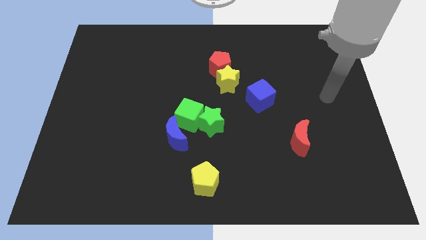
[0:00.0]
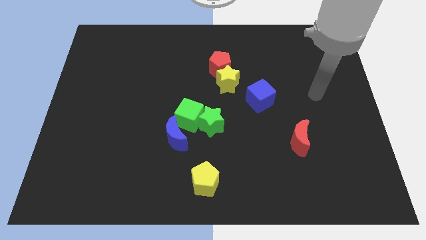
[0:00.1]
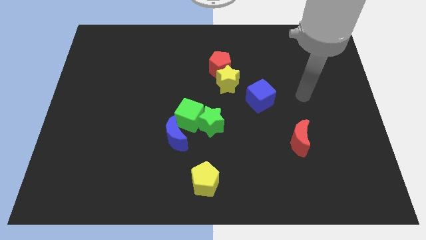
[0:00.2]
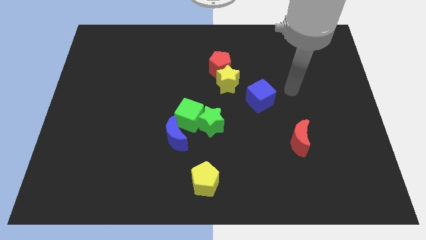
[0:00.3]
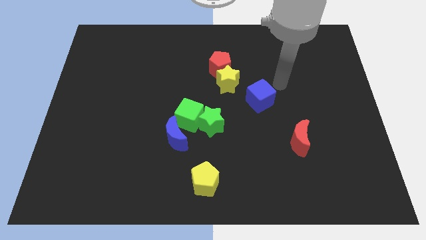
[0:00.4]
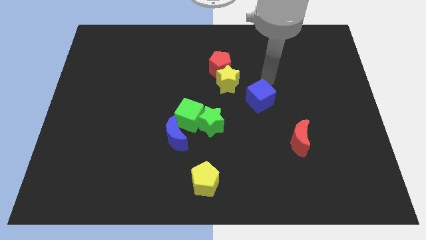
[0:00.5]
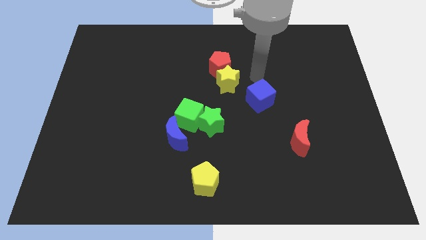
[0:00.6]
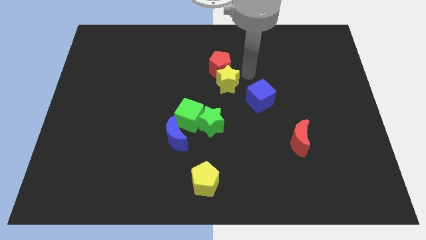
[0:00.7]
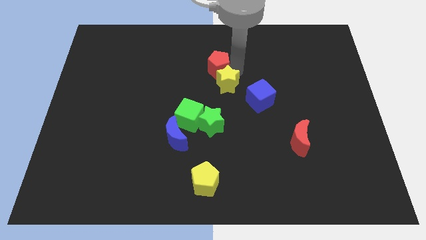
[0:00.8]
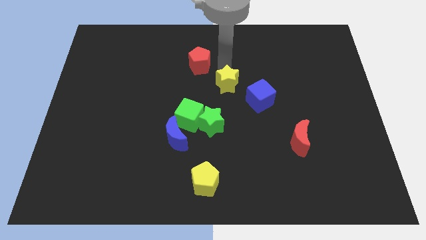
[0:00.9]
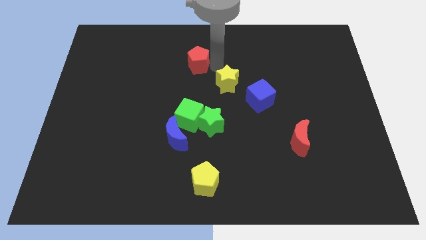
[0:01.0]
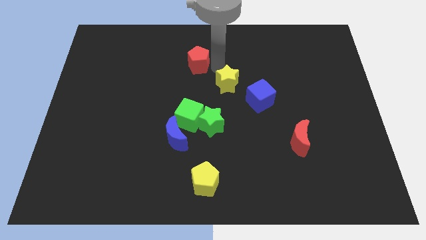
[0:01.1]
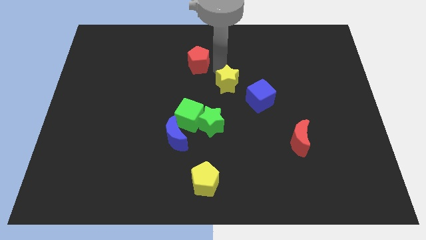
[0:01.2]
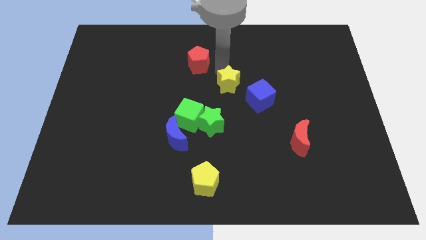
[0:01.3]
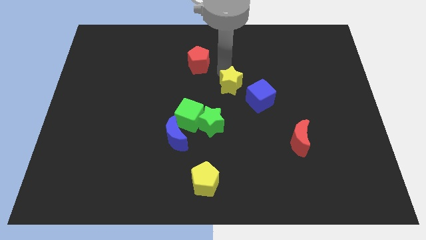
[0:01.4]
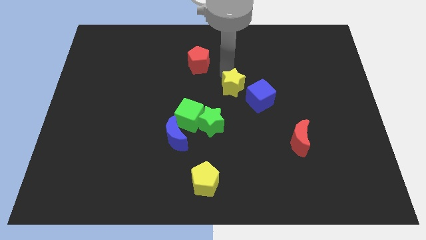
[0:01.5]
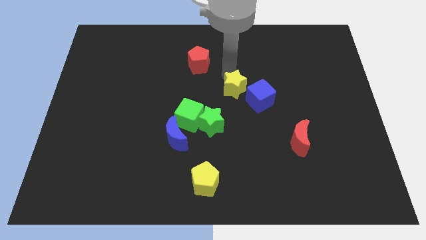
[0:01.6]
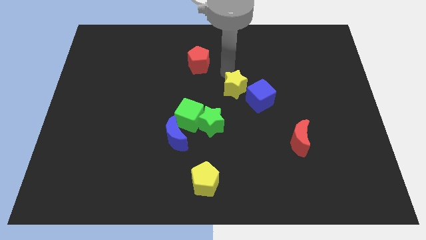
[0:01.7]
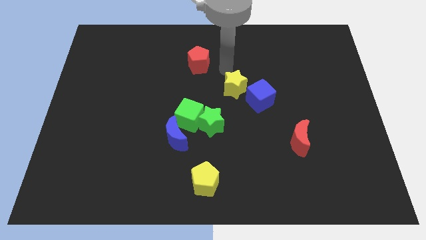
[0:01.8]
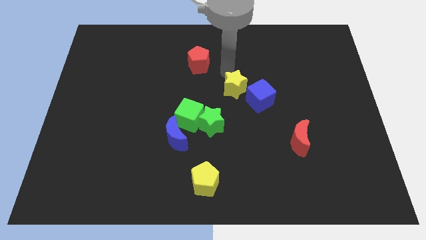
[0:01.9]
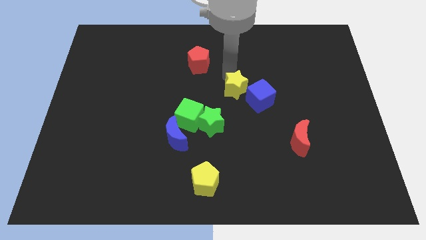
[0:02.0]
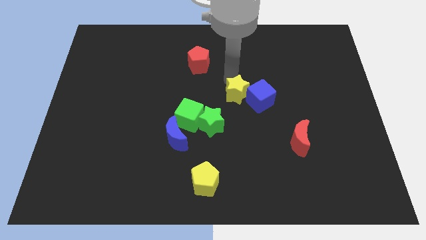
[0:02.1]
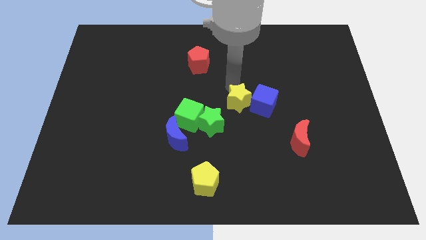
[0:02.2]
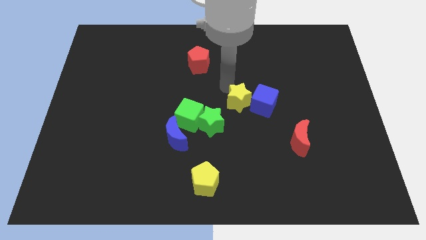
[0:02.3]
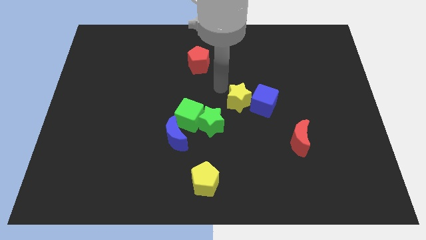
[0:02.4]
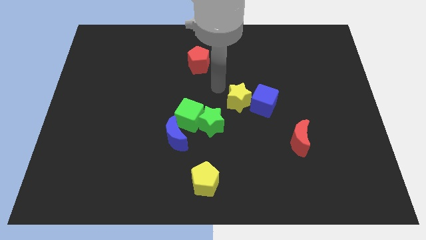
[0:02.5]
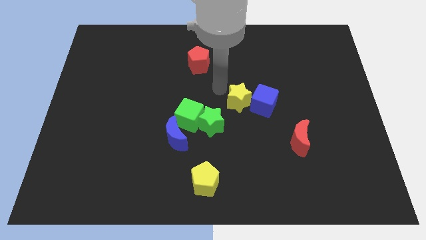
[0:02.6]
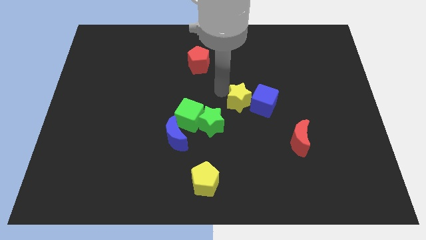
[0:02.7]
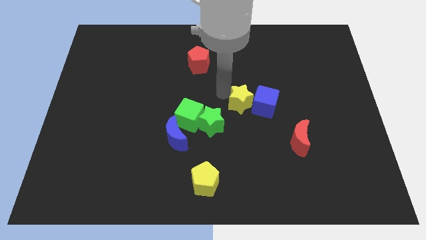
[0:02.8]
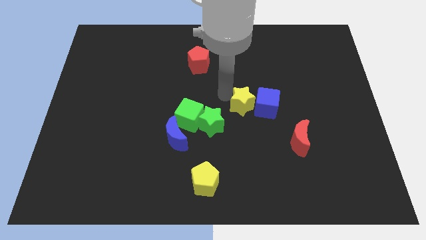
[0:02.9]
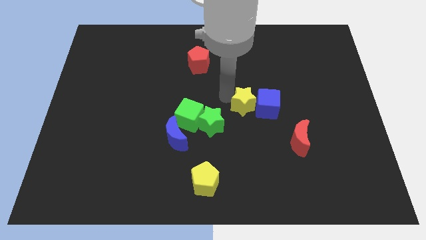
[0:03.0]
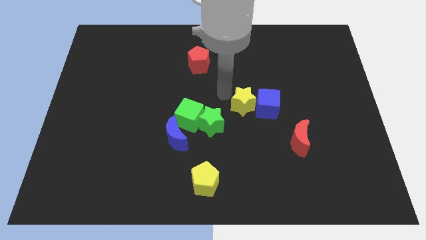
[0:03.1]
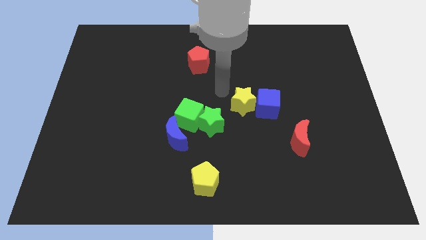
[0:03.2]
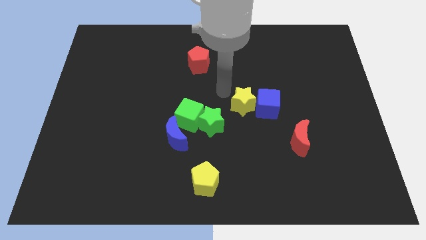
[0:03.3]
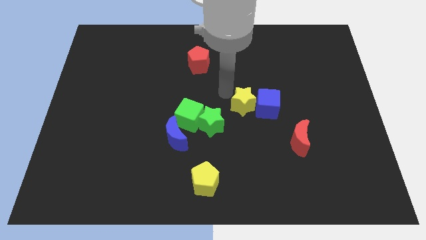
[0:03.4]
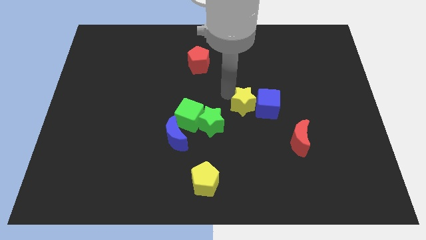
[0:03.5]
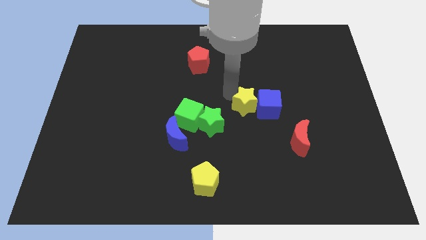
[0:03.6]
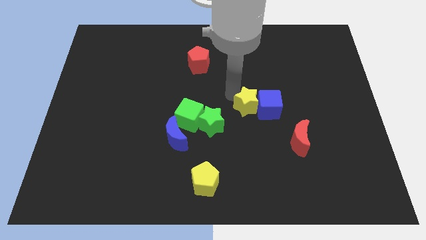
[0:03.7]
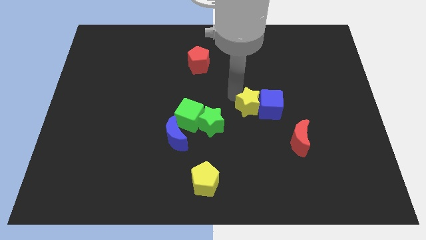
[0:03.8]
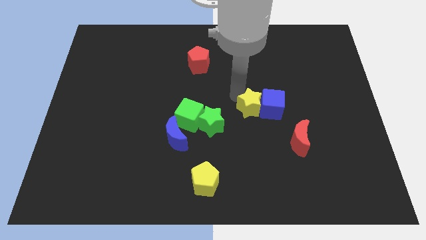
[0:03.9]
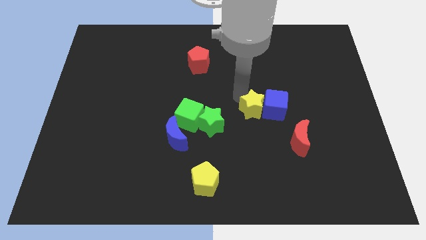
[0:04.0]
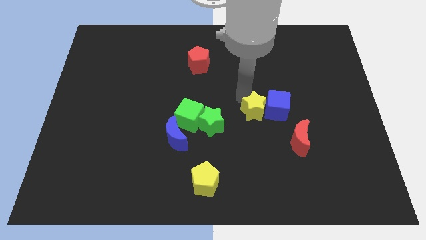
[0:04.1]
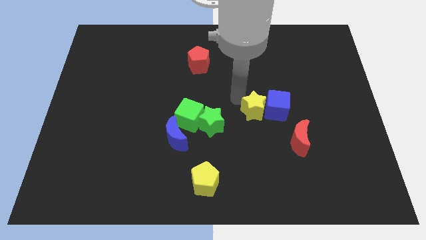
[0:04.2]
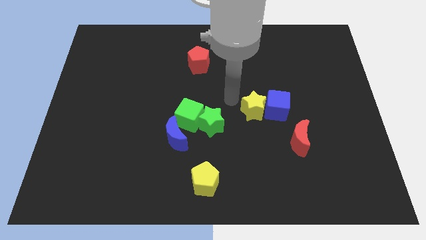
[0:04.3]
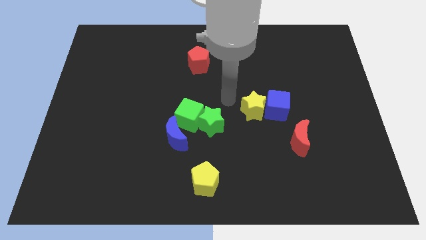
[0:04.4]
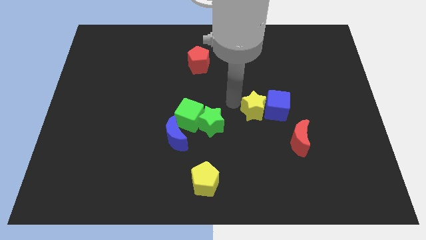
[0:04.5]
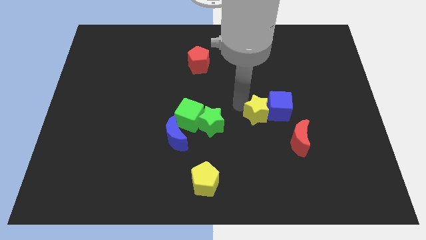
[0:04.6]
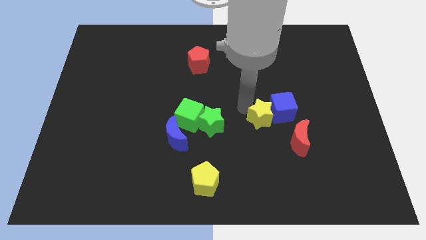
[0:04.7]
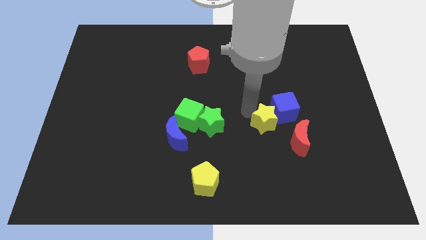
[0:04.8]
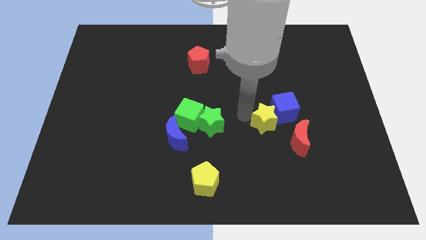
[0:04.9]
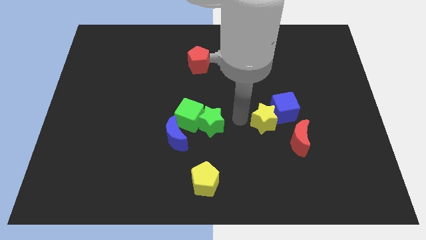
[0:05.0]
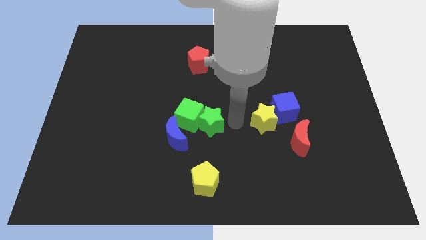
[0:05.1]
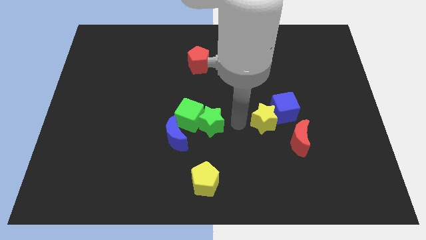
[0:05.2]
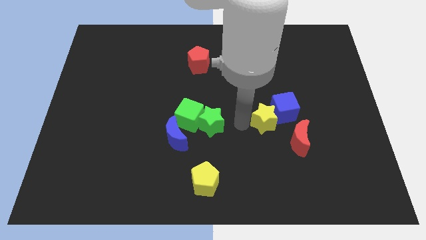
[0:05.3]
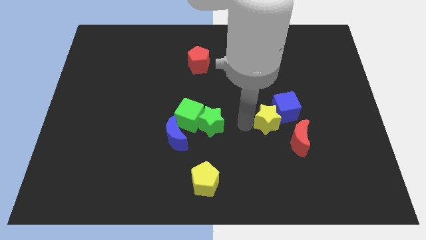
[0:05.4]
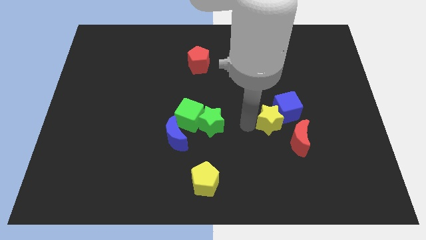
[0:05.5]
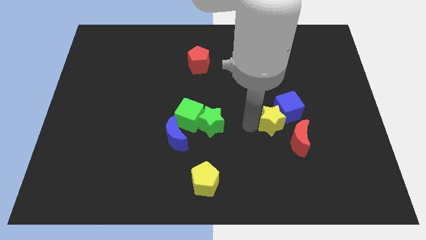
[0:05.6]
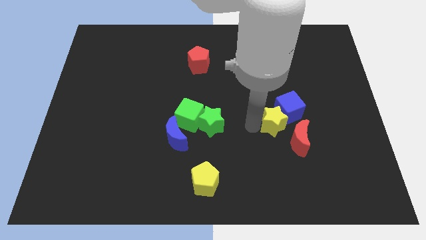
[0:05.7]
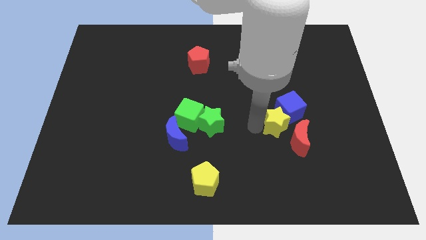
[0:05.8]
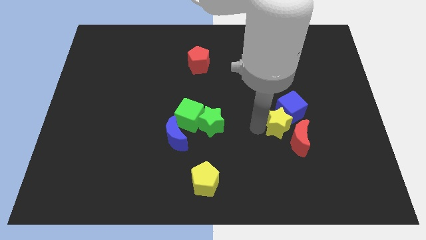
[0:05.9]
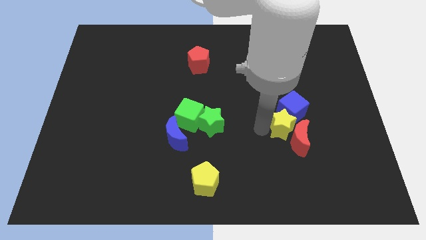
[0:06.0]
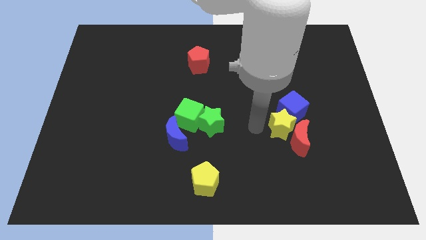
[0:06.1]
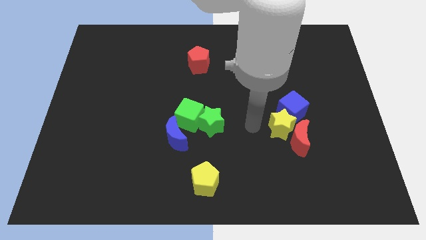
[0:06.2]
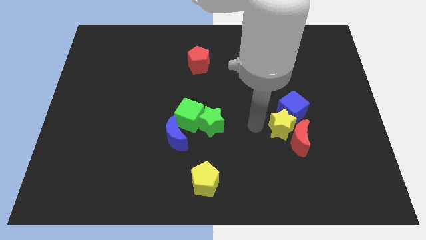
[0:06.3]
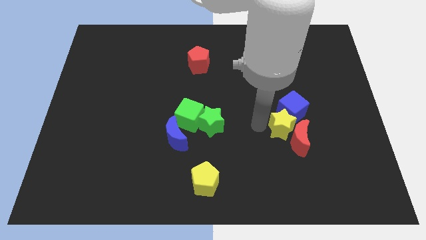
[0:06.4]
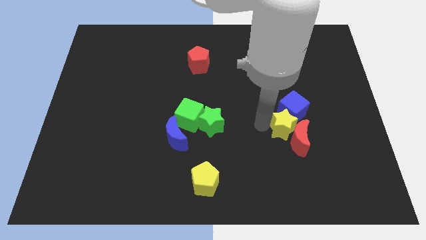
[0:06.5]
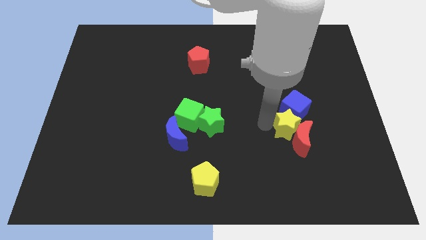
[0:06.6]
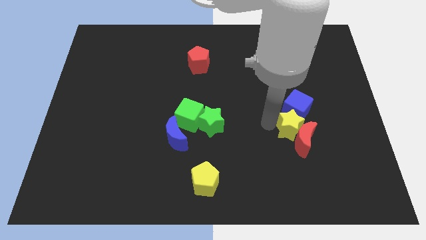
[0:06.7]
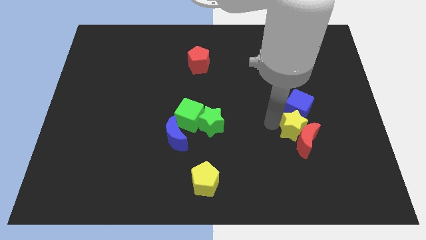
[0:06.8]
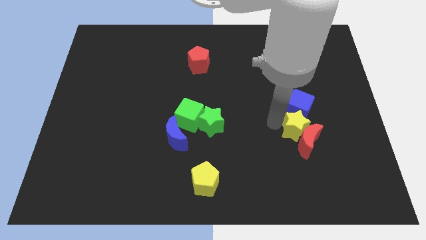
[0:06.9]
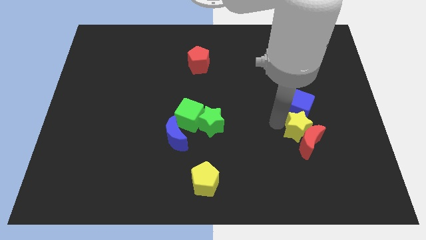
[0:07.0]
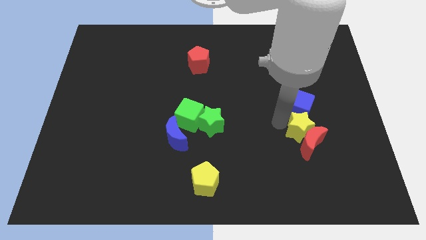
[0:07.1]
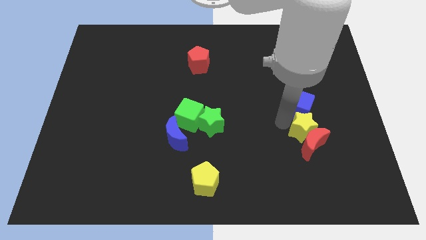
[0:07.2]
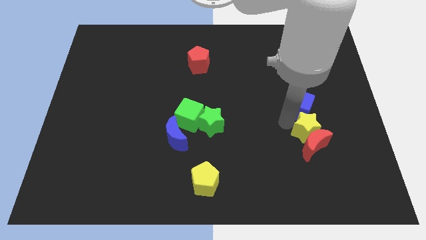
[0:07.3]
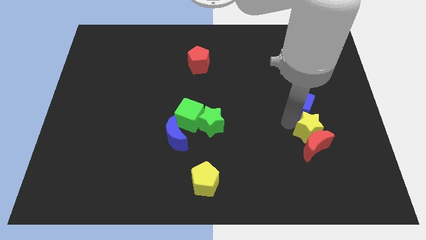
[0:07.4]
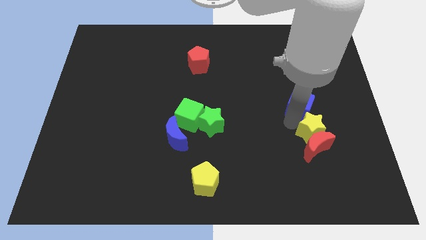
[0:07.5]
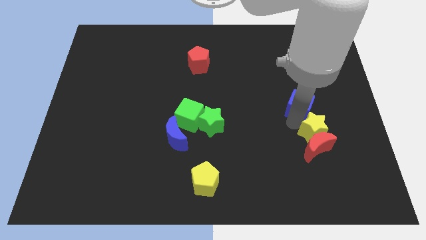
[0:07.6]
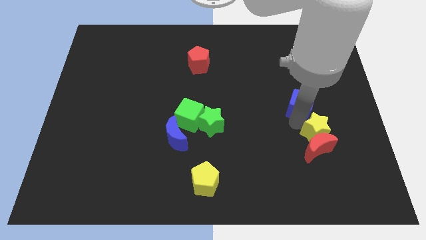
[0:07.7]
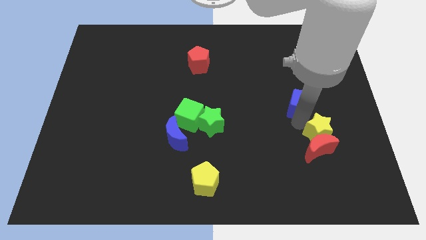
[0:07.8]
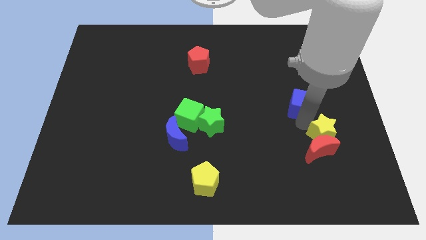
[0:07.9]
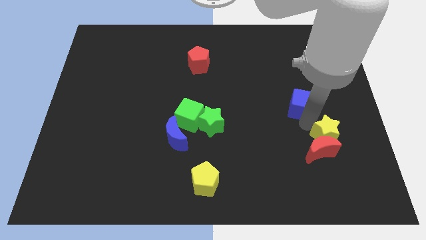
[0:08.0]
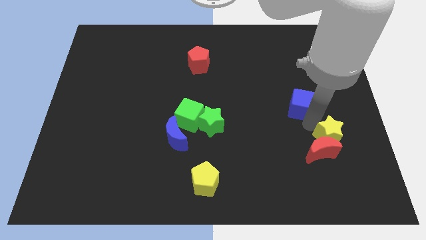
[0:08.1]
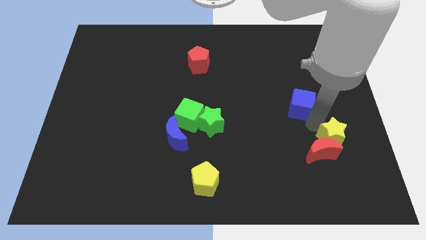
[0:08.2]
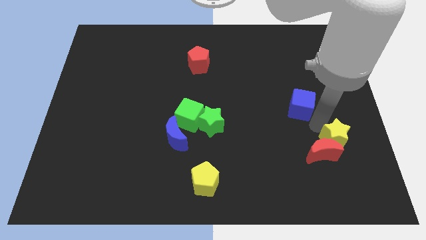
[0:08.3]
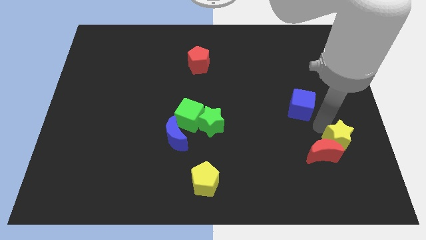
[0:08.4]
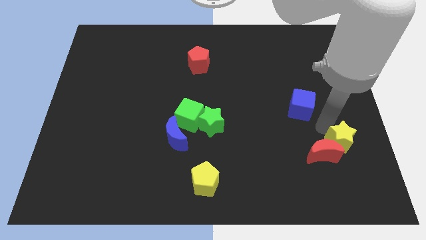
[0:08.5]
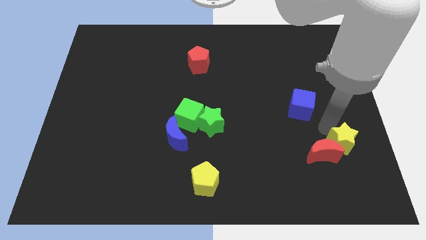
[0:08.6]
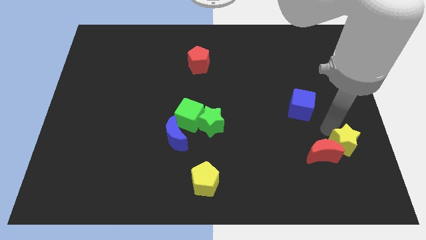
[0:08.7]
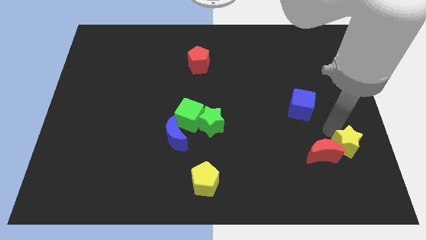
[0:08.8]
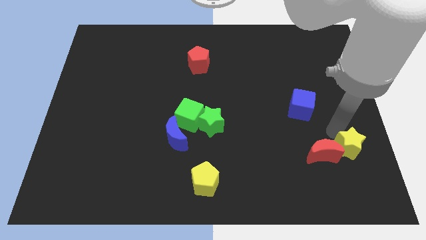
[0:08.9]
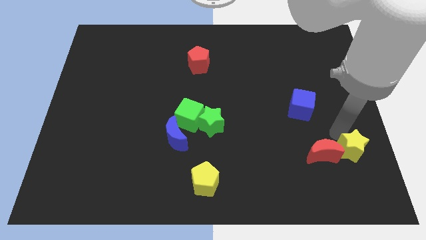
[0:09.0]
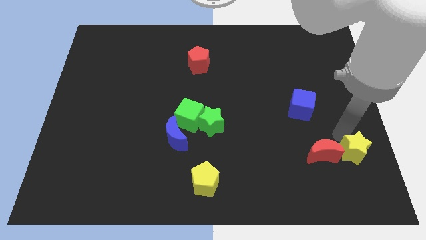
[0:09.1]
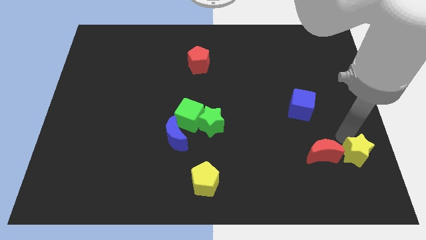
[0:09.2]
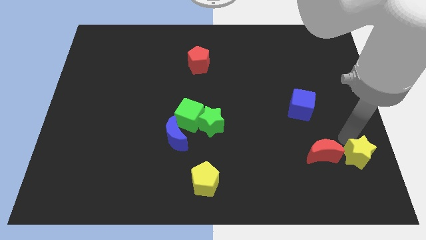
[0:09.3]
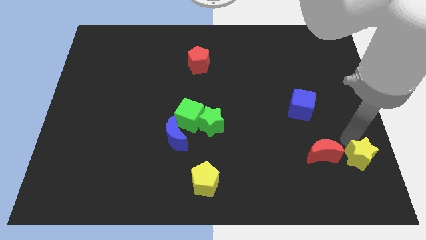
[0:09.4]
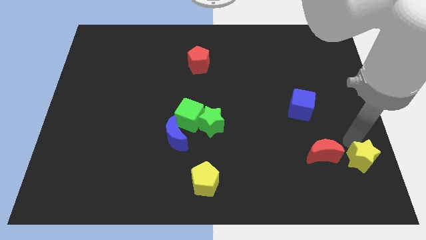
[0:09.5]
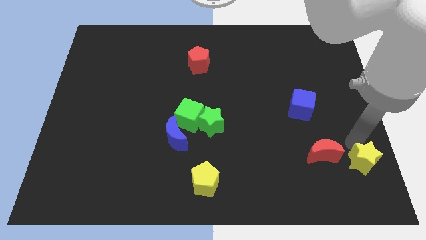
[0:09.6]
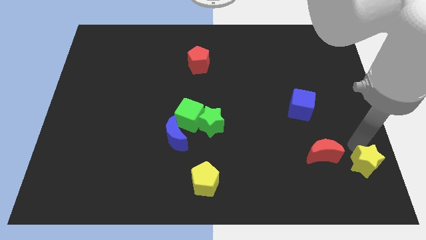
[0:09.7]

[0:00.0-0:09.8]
move the yellow star to the bottom right
